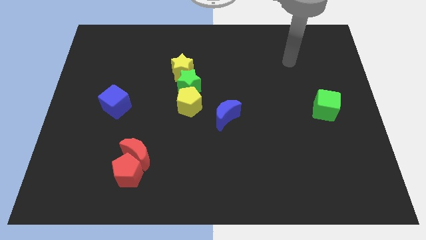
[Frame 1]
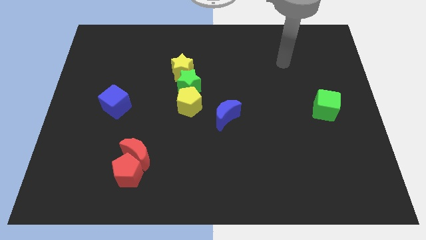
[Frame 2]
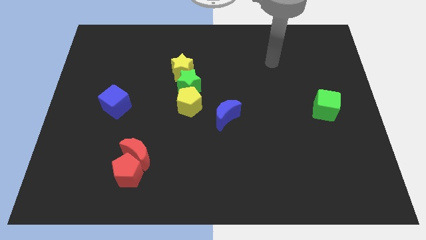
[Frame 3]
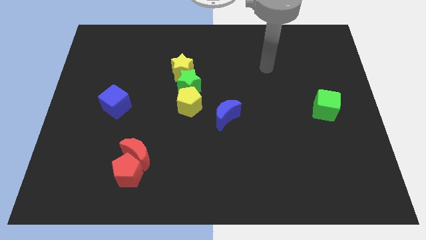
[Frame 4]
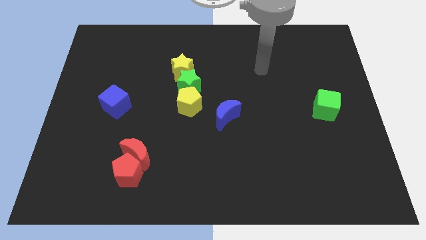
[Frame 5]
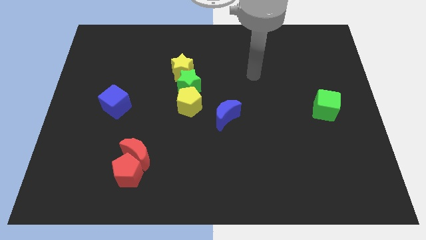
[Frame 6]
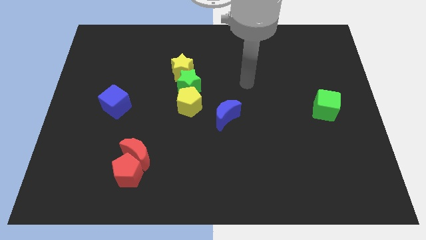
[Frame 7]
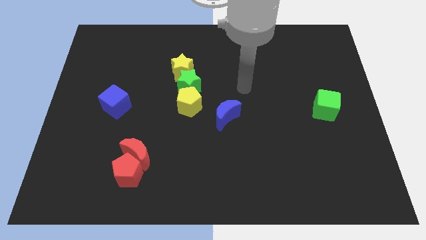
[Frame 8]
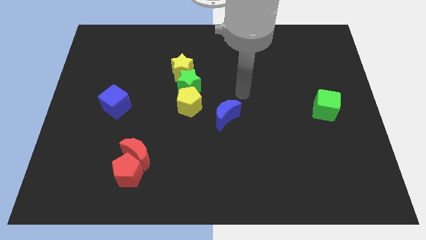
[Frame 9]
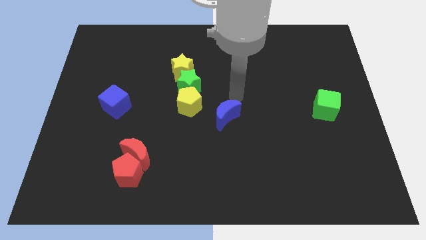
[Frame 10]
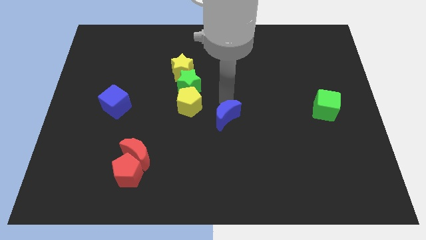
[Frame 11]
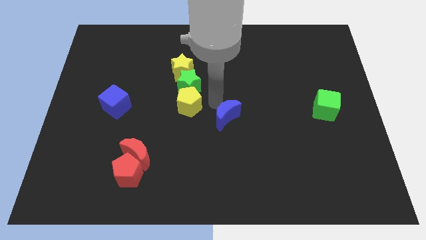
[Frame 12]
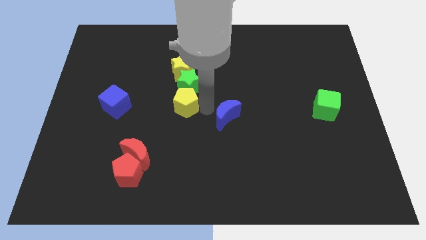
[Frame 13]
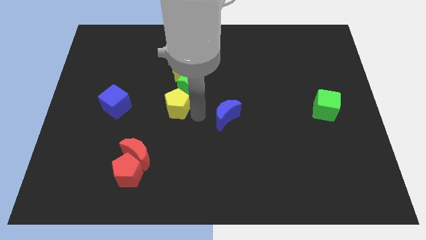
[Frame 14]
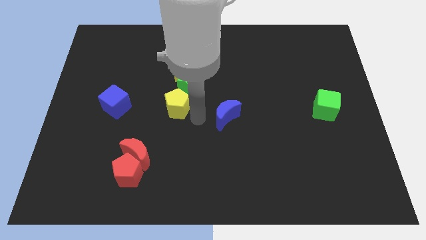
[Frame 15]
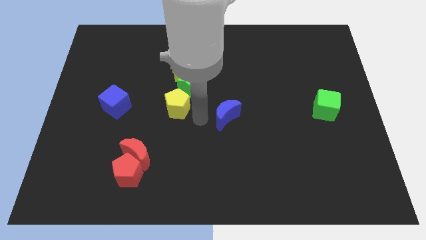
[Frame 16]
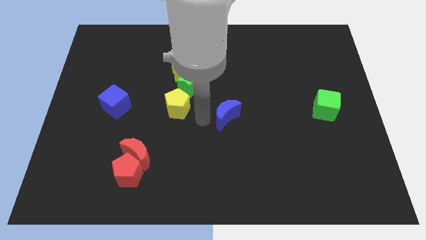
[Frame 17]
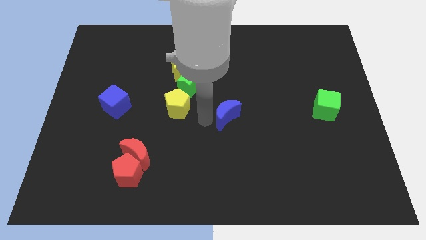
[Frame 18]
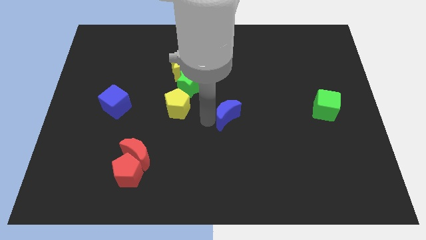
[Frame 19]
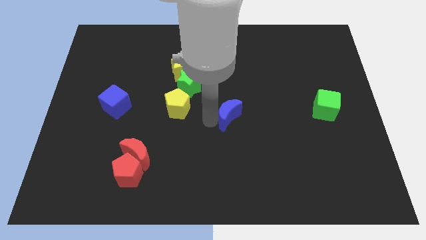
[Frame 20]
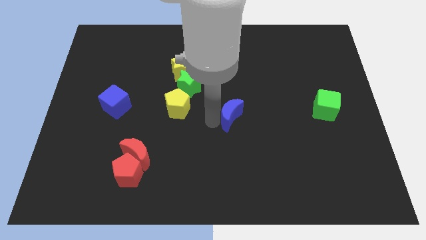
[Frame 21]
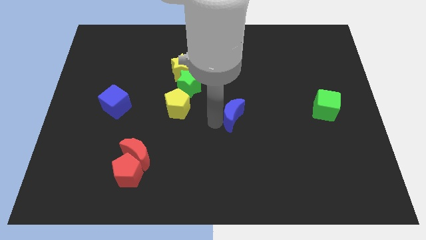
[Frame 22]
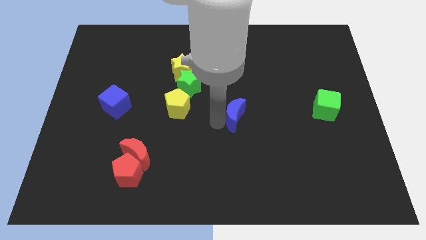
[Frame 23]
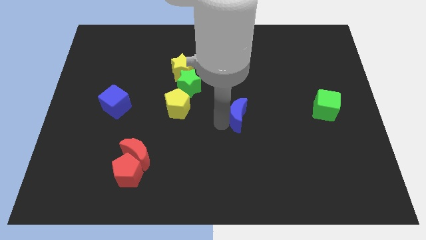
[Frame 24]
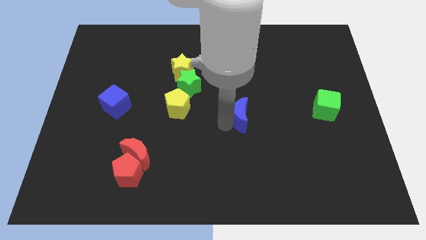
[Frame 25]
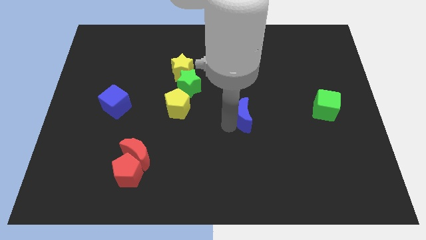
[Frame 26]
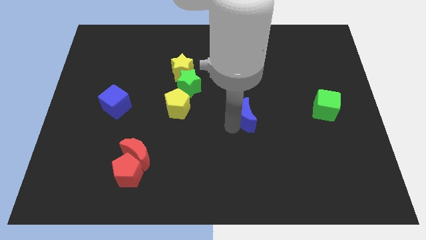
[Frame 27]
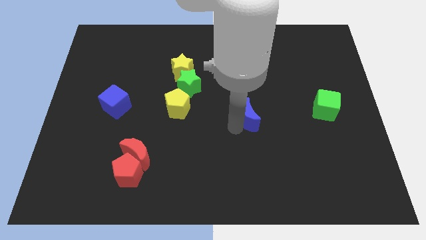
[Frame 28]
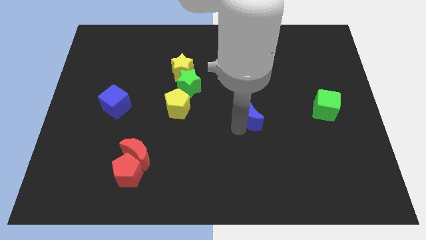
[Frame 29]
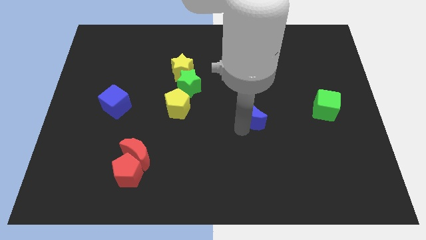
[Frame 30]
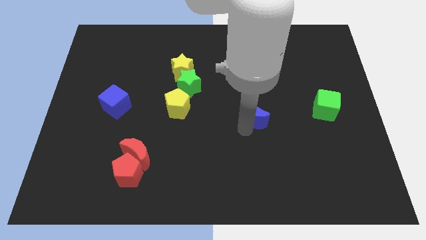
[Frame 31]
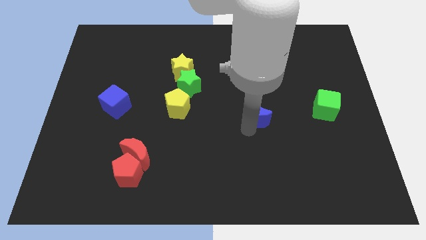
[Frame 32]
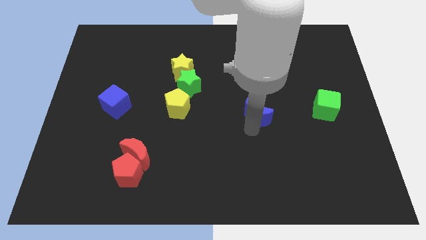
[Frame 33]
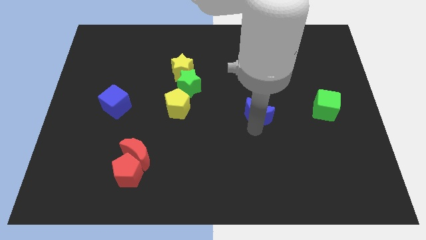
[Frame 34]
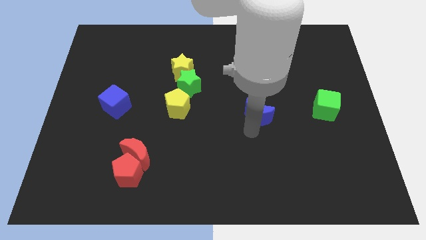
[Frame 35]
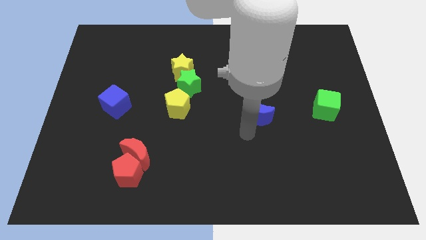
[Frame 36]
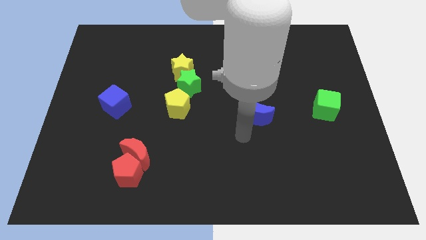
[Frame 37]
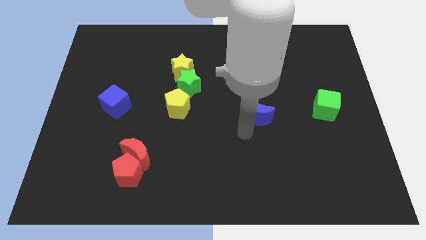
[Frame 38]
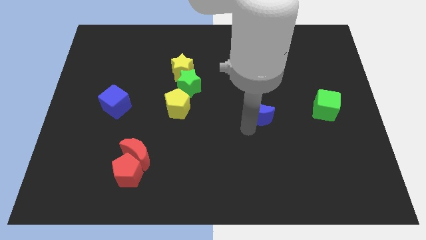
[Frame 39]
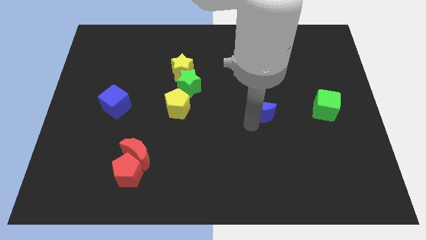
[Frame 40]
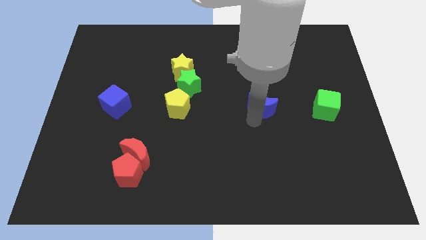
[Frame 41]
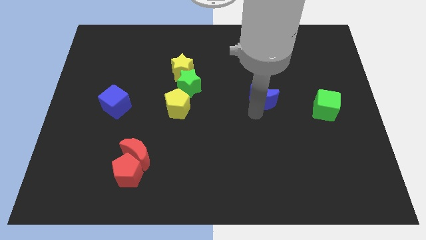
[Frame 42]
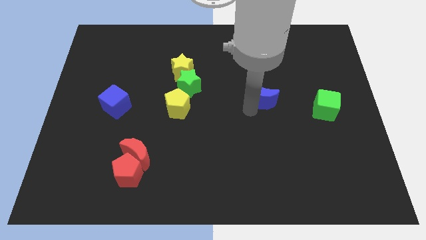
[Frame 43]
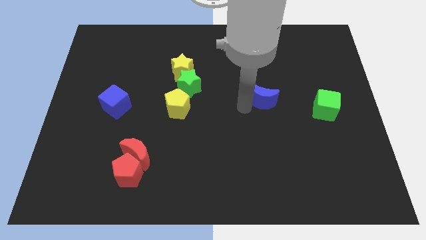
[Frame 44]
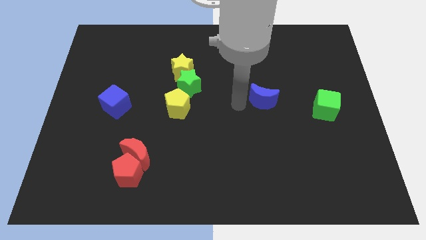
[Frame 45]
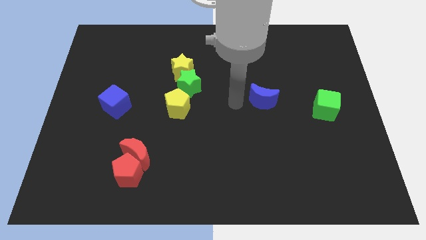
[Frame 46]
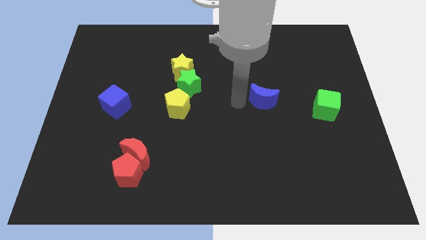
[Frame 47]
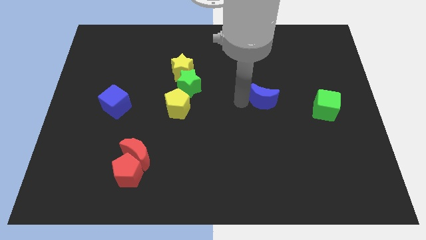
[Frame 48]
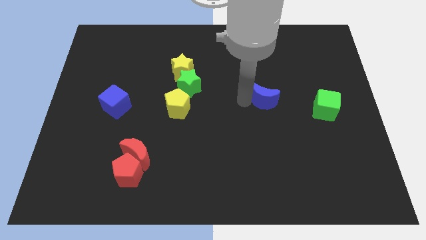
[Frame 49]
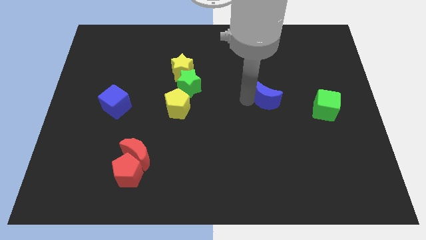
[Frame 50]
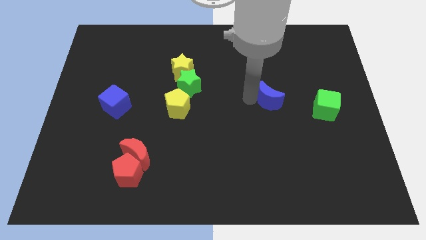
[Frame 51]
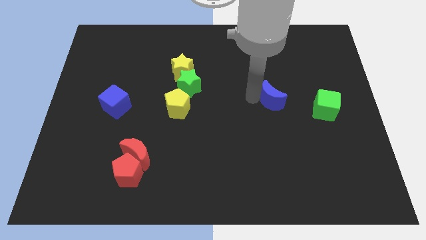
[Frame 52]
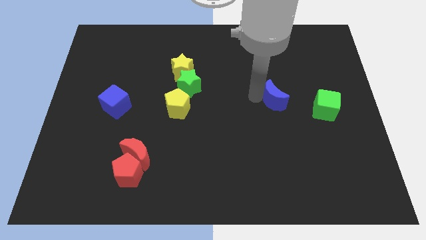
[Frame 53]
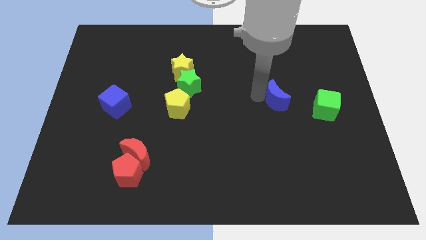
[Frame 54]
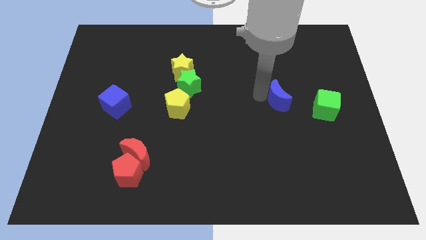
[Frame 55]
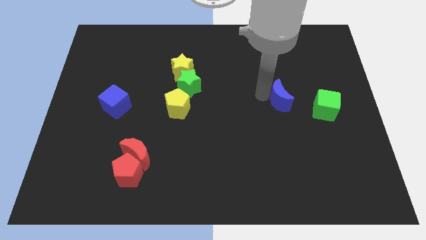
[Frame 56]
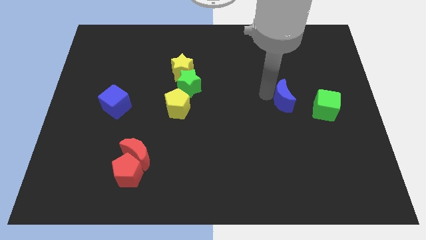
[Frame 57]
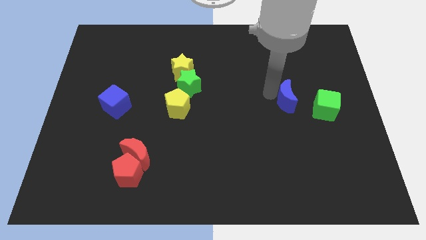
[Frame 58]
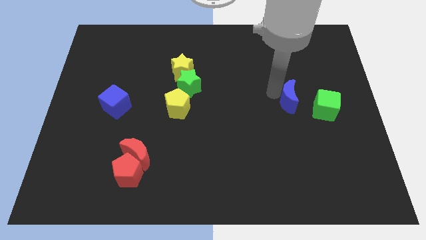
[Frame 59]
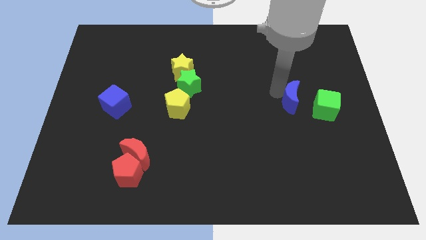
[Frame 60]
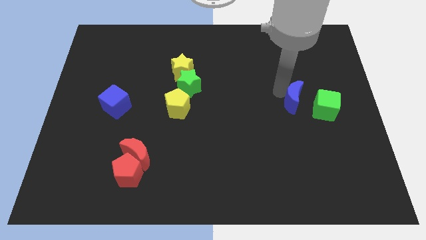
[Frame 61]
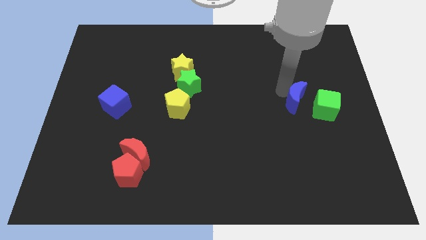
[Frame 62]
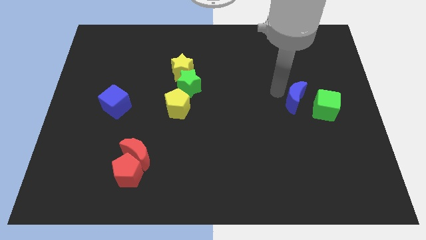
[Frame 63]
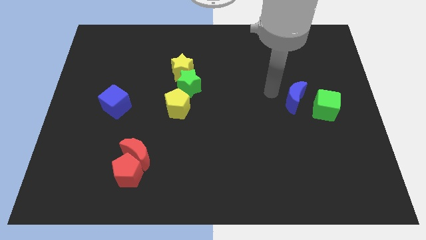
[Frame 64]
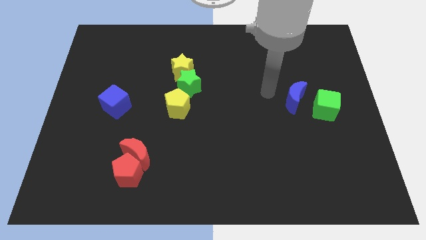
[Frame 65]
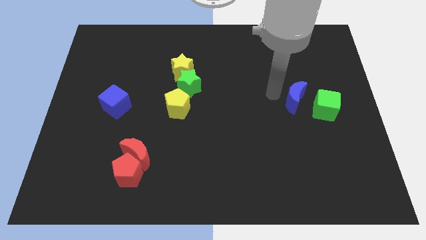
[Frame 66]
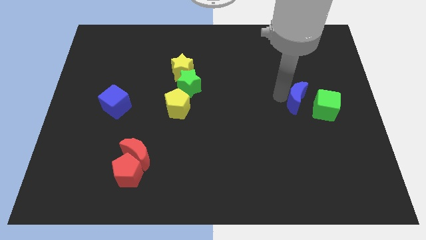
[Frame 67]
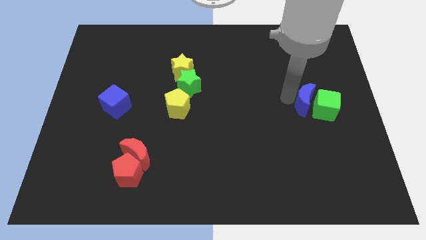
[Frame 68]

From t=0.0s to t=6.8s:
move the blue moon close to the green cube
